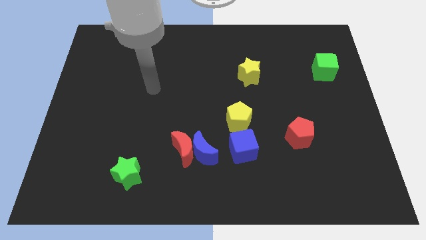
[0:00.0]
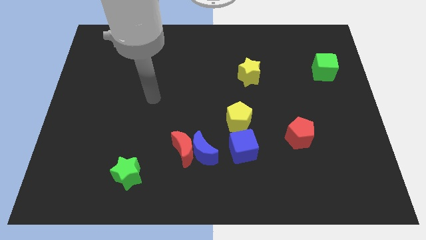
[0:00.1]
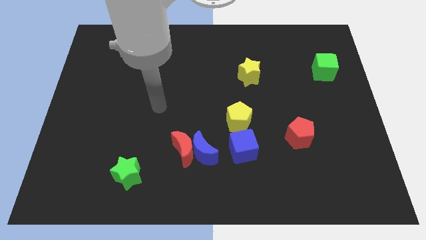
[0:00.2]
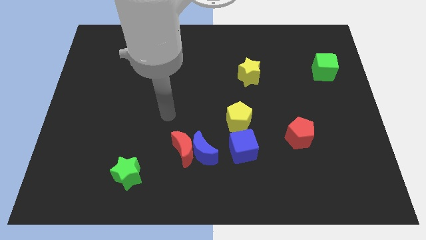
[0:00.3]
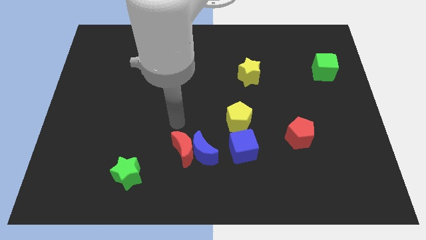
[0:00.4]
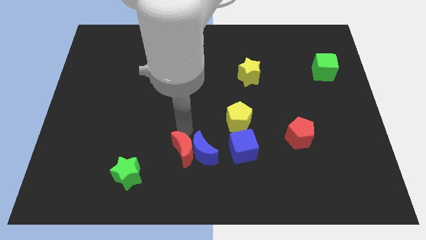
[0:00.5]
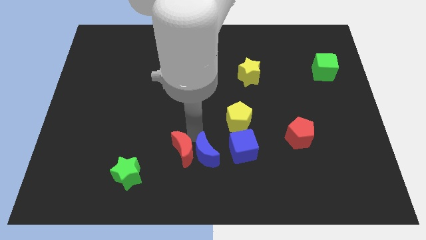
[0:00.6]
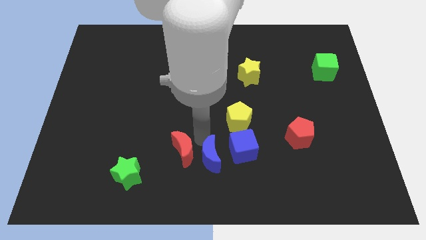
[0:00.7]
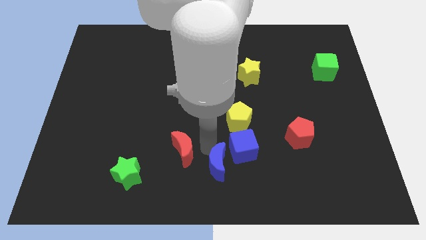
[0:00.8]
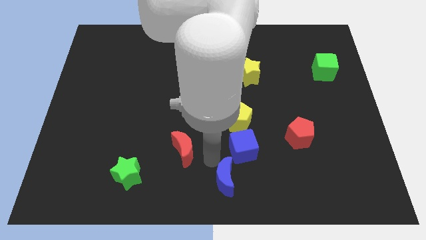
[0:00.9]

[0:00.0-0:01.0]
move the red moon away from the blue moon

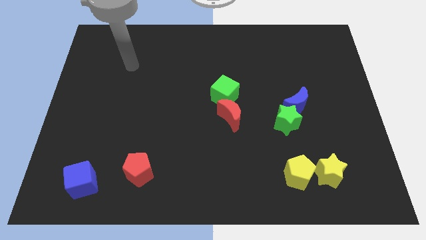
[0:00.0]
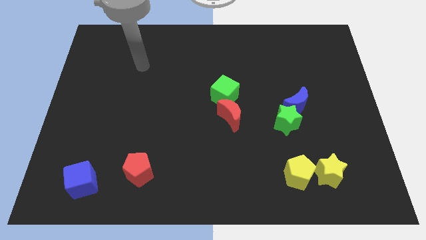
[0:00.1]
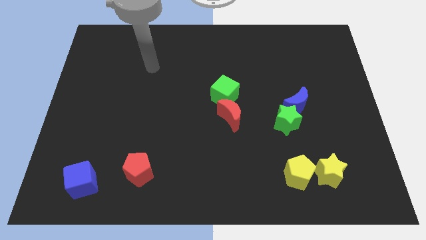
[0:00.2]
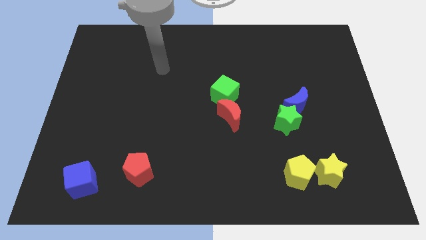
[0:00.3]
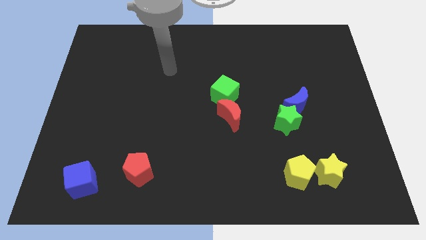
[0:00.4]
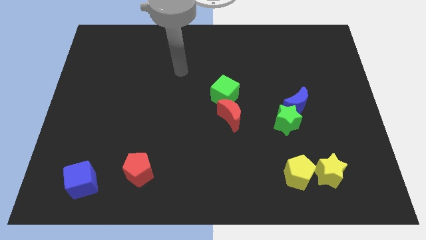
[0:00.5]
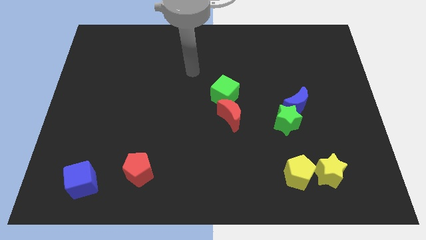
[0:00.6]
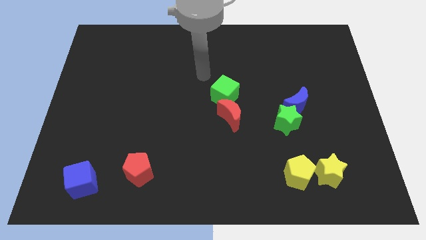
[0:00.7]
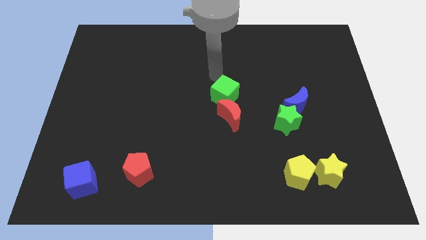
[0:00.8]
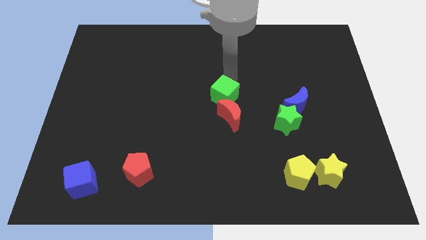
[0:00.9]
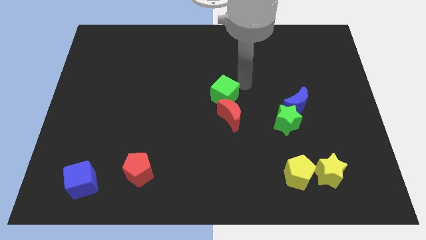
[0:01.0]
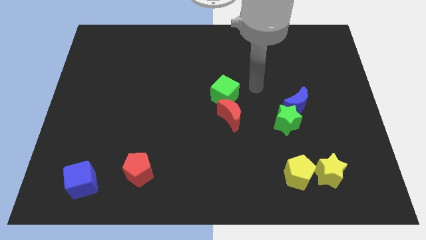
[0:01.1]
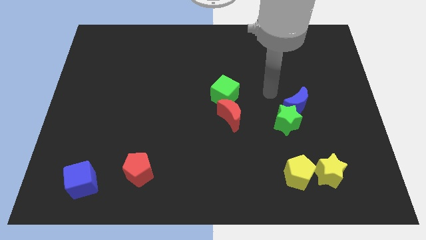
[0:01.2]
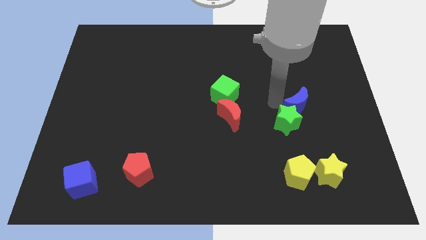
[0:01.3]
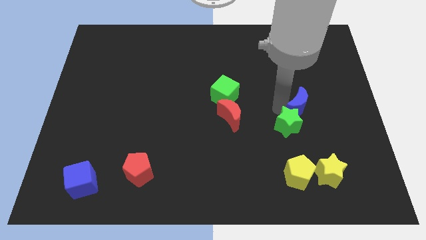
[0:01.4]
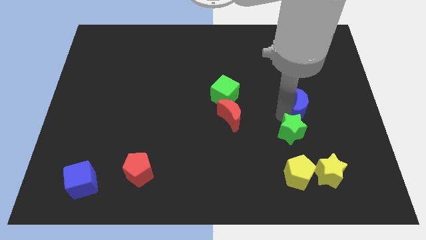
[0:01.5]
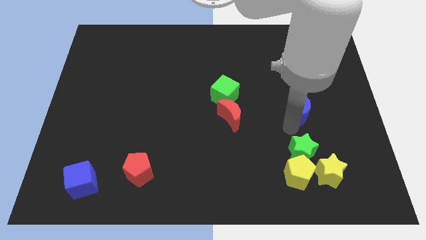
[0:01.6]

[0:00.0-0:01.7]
separate the blue moon from the green star

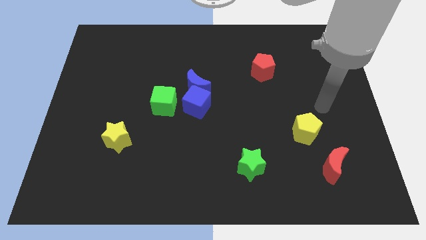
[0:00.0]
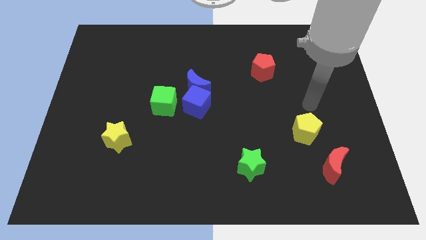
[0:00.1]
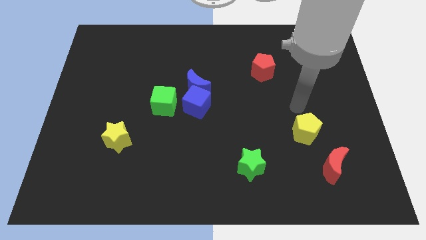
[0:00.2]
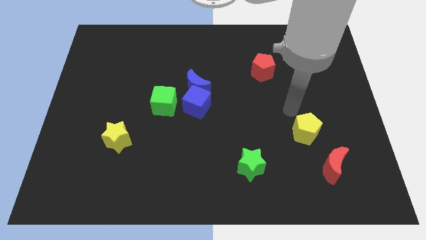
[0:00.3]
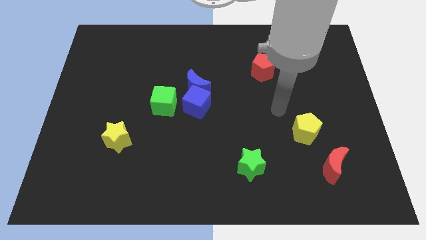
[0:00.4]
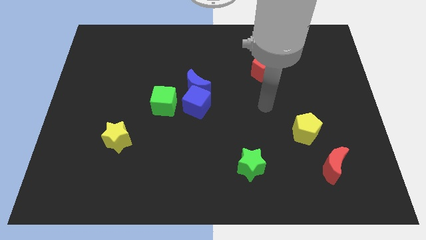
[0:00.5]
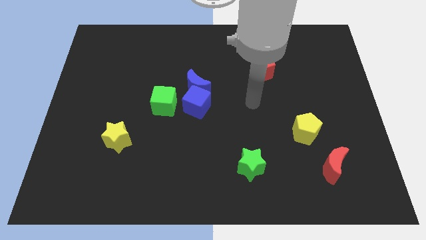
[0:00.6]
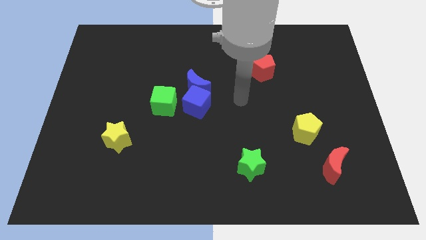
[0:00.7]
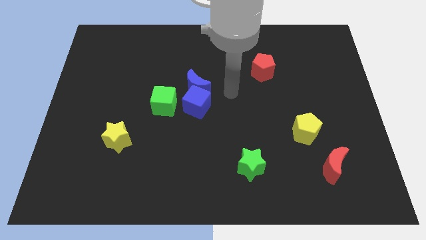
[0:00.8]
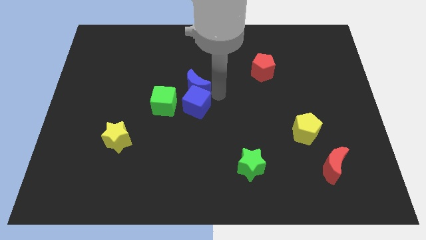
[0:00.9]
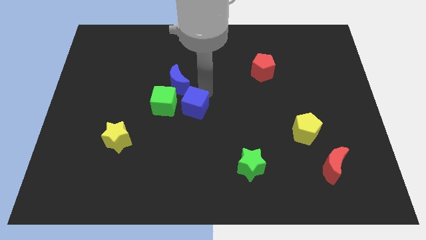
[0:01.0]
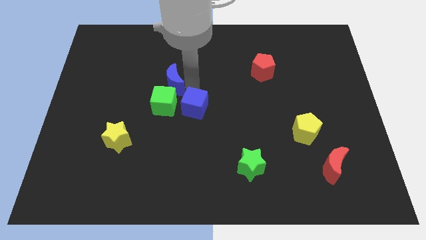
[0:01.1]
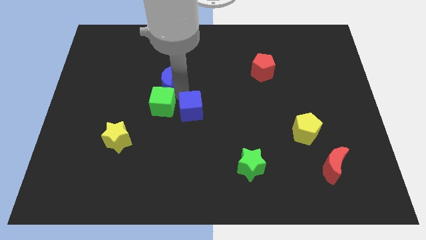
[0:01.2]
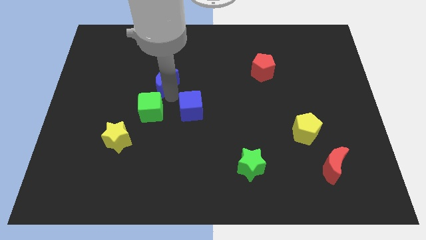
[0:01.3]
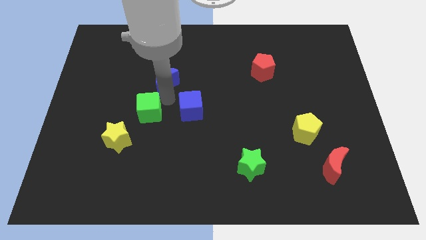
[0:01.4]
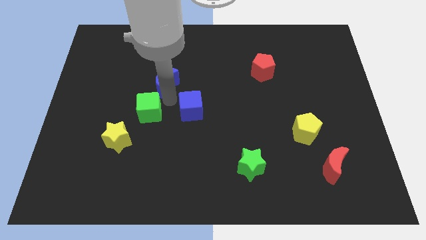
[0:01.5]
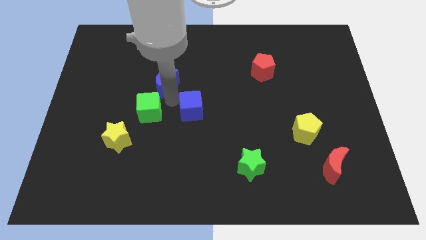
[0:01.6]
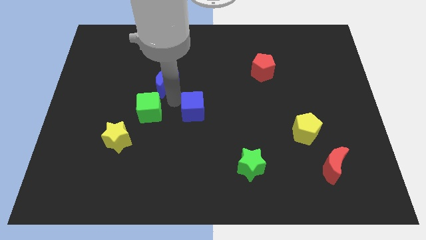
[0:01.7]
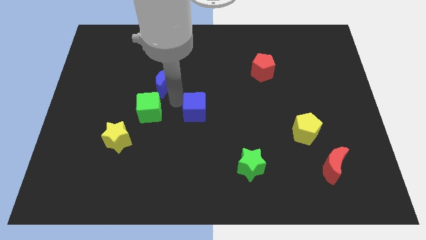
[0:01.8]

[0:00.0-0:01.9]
move the blue cube away from the blue moon and green cube

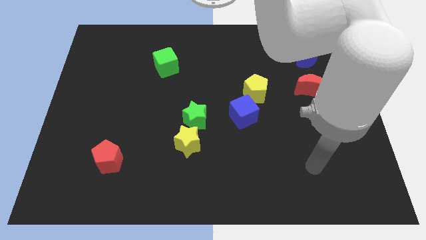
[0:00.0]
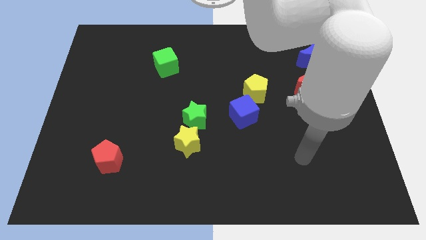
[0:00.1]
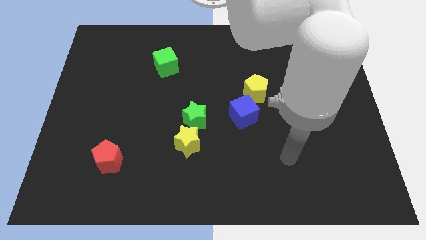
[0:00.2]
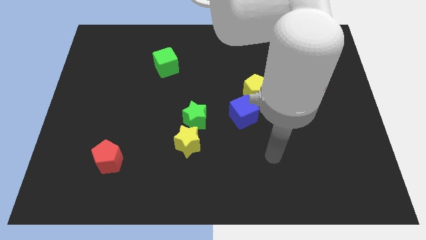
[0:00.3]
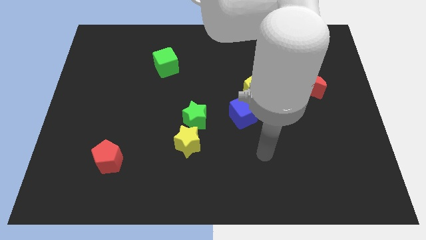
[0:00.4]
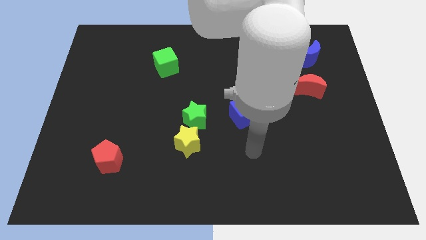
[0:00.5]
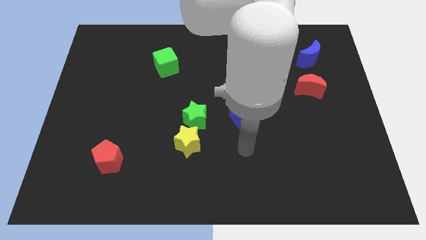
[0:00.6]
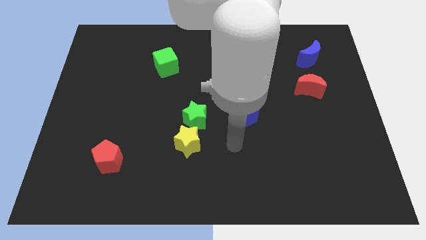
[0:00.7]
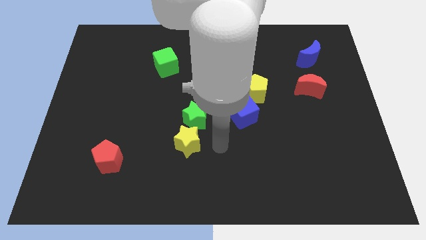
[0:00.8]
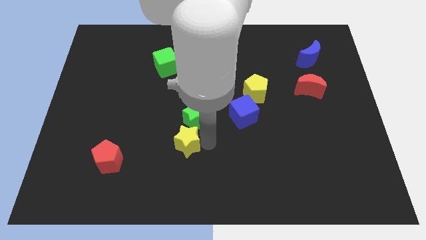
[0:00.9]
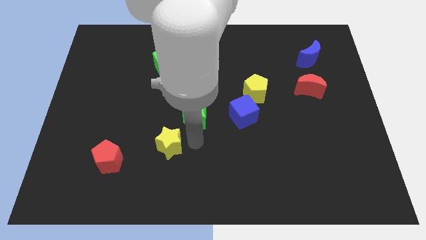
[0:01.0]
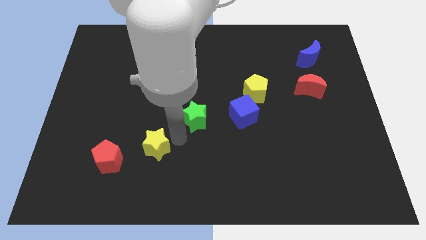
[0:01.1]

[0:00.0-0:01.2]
separate the green star from the yellow star

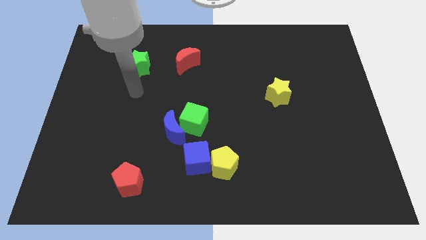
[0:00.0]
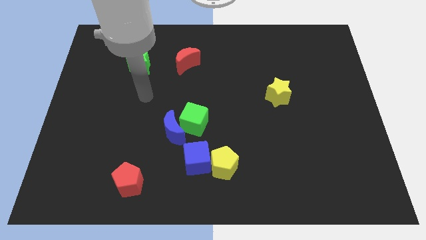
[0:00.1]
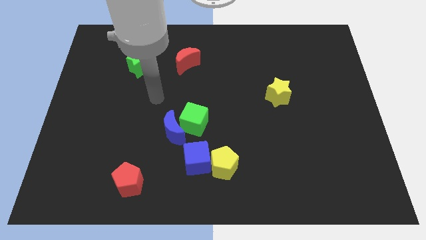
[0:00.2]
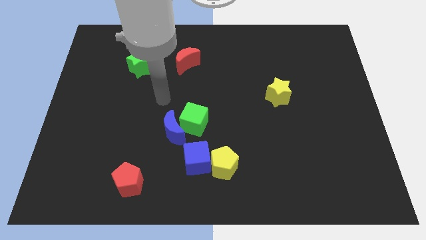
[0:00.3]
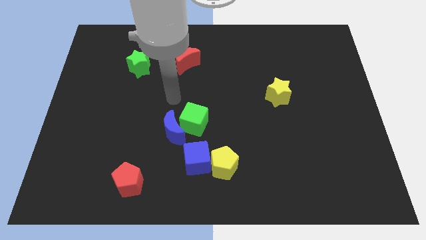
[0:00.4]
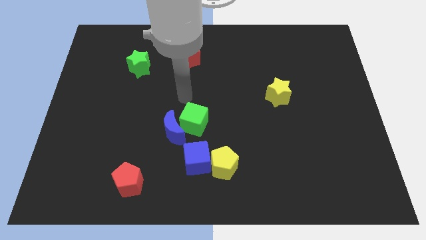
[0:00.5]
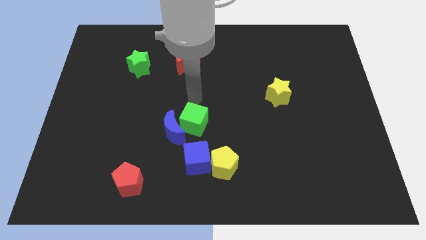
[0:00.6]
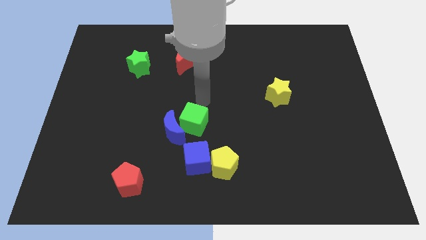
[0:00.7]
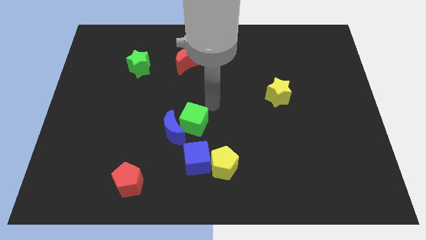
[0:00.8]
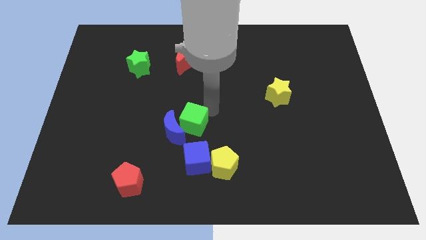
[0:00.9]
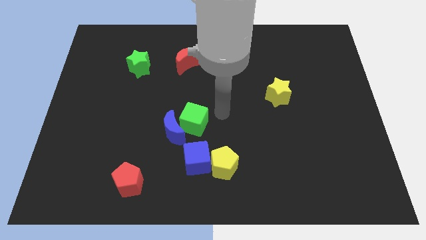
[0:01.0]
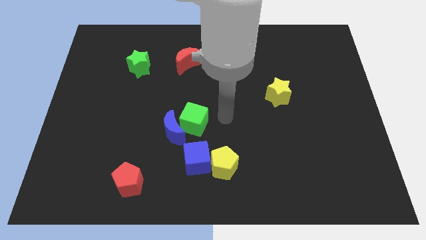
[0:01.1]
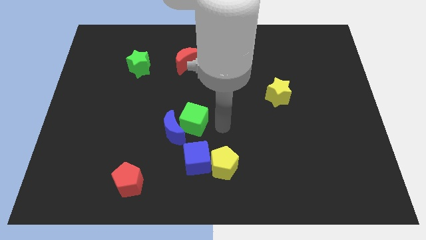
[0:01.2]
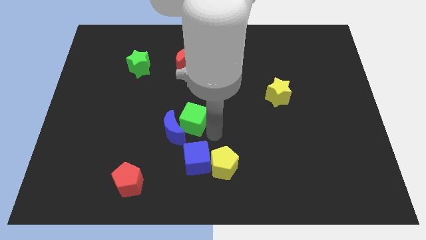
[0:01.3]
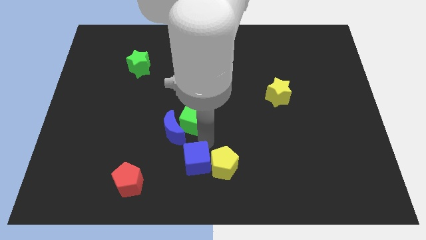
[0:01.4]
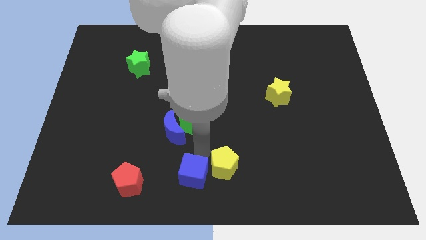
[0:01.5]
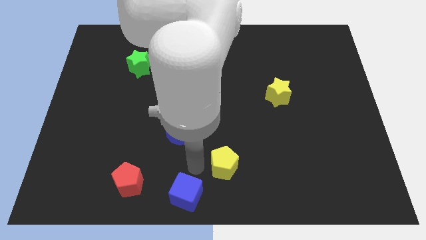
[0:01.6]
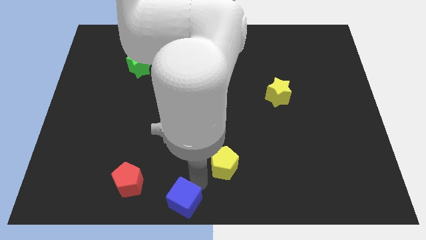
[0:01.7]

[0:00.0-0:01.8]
pull the yellow pentagon apart from the blue cube

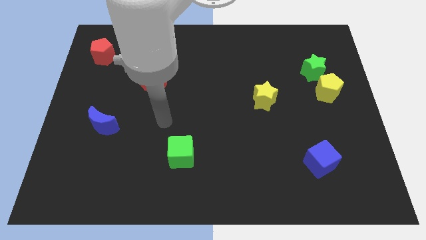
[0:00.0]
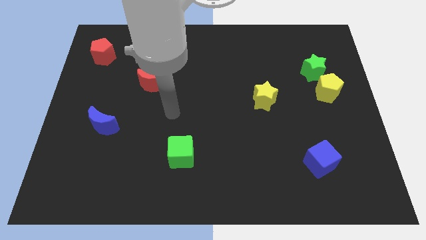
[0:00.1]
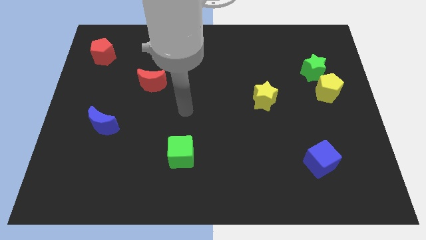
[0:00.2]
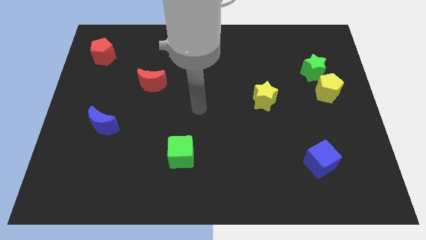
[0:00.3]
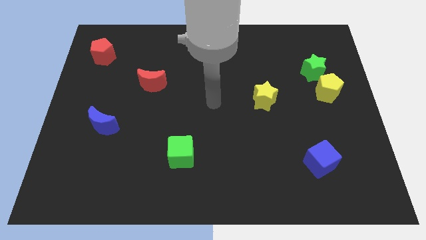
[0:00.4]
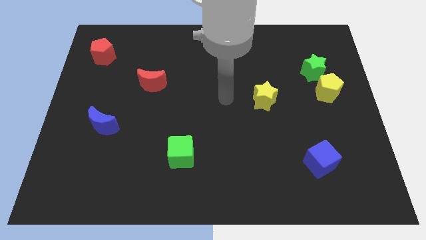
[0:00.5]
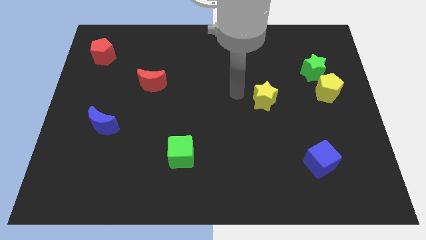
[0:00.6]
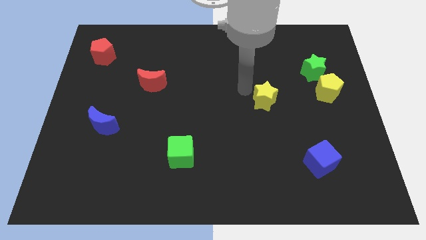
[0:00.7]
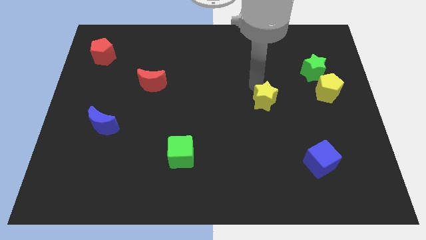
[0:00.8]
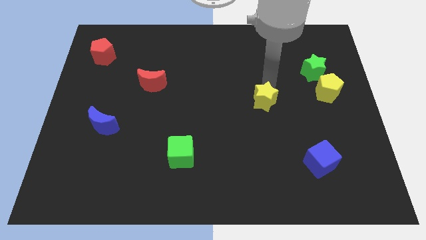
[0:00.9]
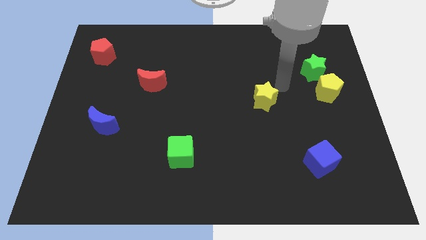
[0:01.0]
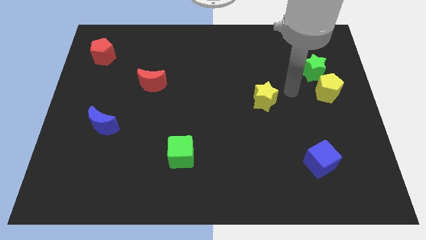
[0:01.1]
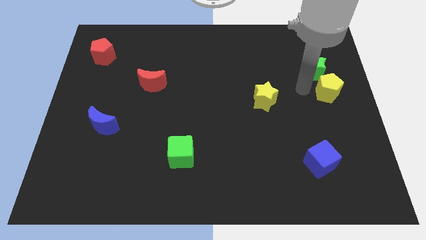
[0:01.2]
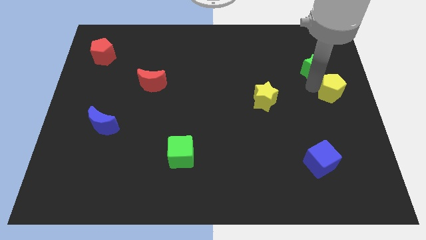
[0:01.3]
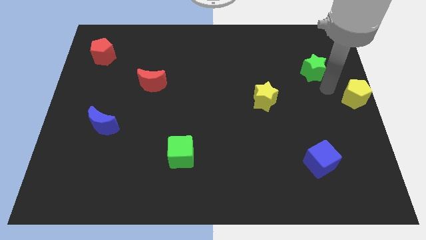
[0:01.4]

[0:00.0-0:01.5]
move the green star away from the yellow pentagon
